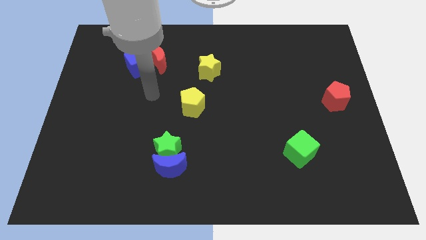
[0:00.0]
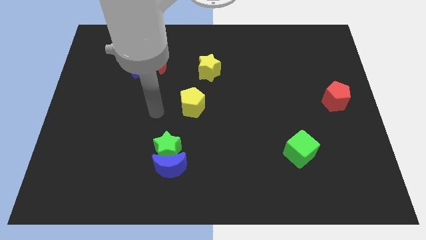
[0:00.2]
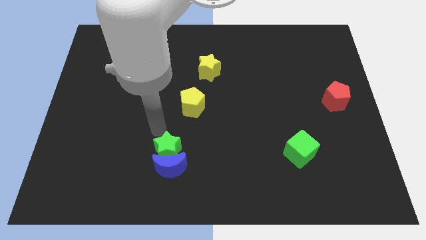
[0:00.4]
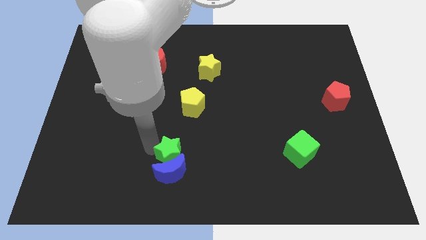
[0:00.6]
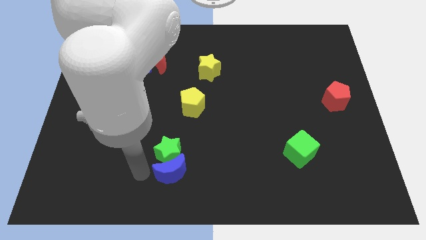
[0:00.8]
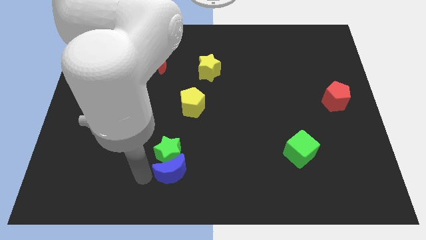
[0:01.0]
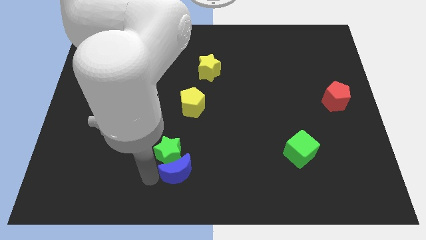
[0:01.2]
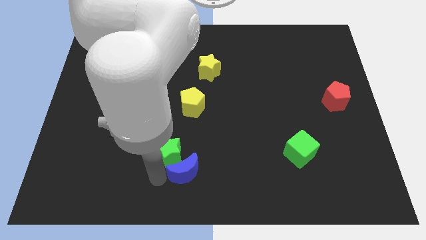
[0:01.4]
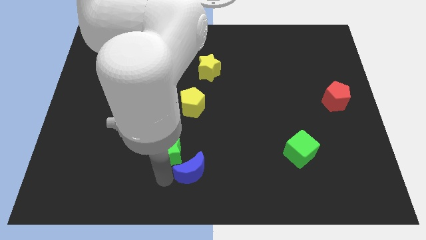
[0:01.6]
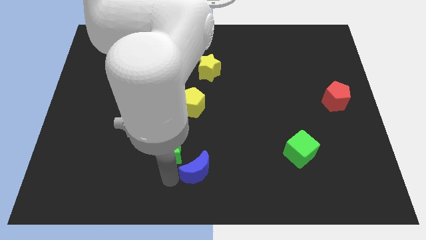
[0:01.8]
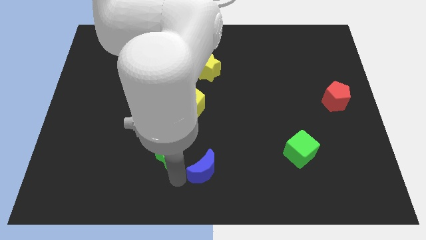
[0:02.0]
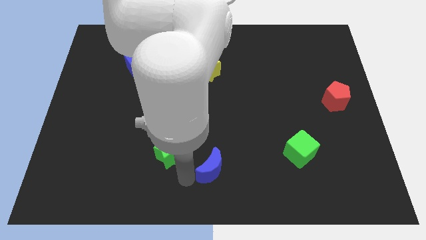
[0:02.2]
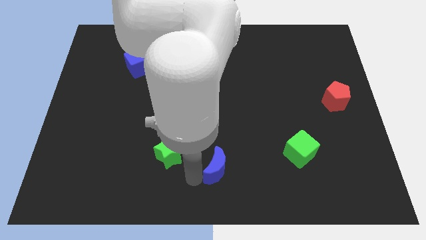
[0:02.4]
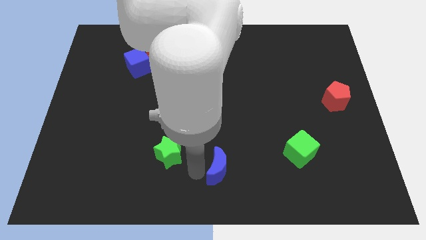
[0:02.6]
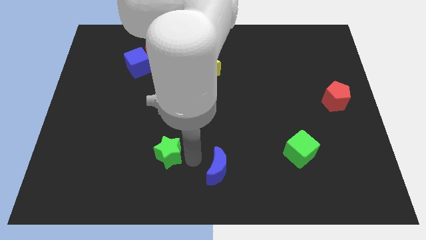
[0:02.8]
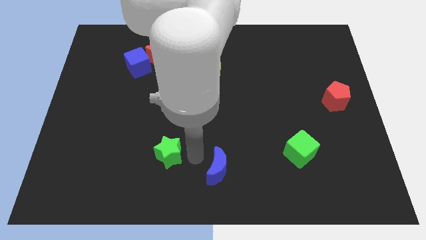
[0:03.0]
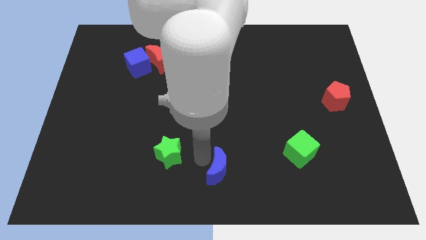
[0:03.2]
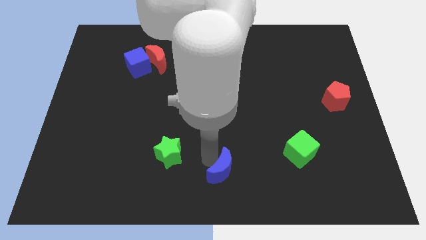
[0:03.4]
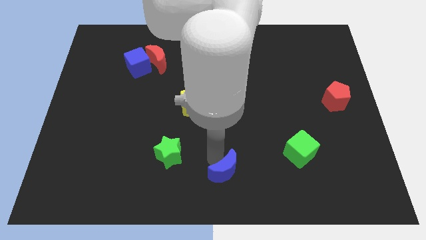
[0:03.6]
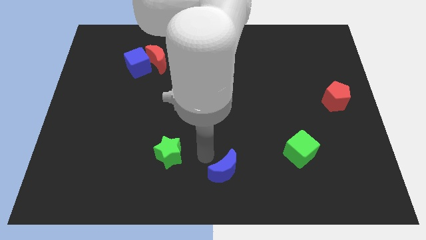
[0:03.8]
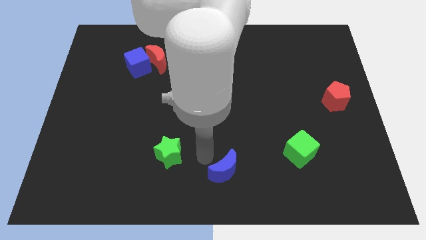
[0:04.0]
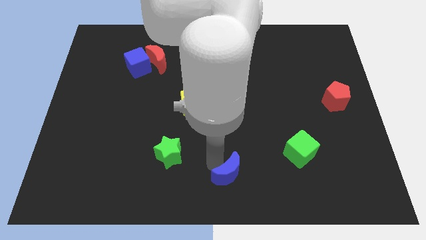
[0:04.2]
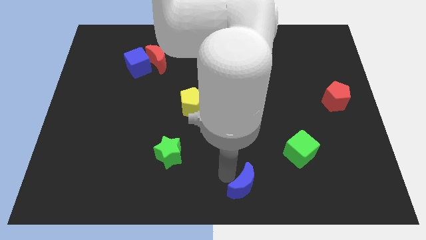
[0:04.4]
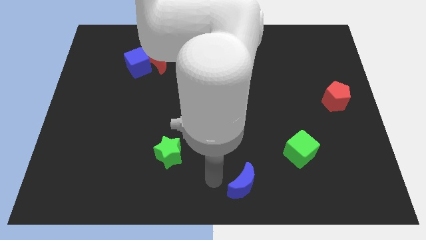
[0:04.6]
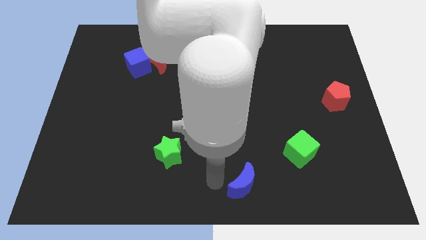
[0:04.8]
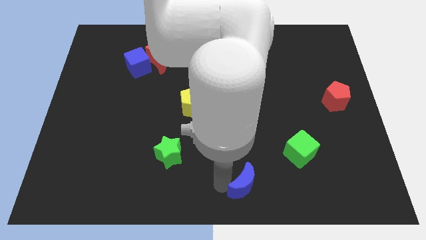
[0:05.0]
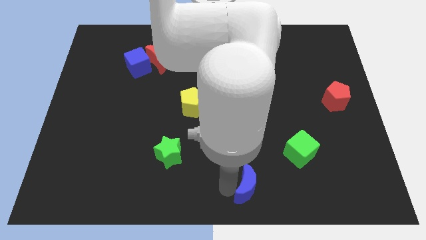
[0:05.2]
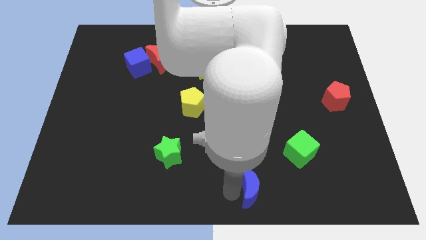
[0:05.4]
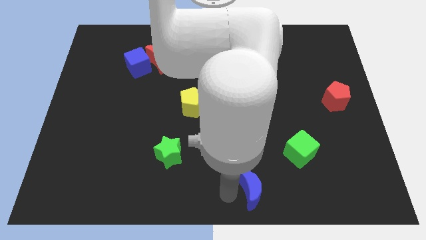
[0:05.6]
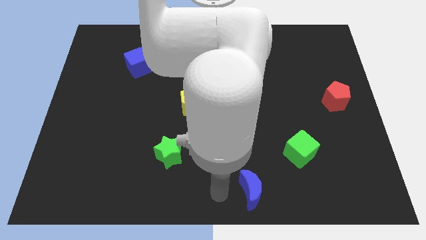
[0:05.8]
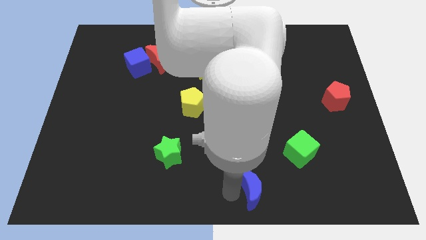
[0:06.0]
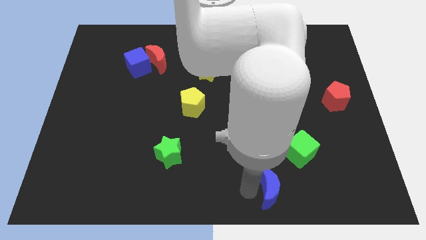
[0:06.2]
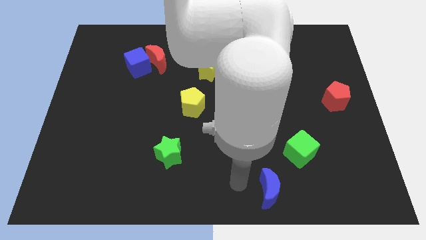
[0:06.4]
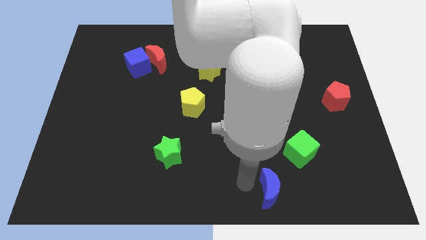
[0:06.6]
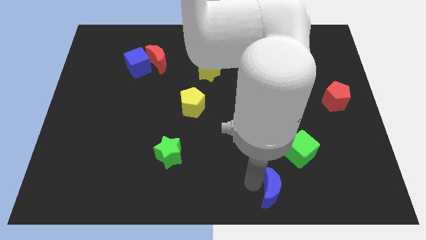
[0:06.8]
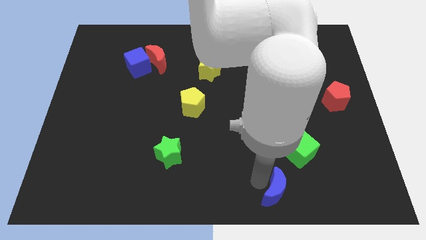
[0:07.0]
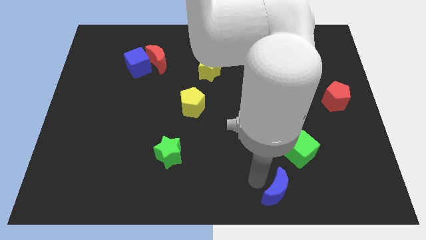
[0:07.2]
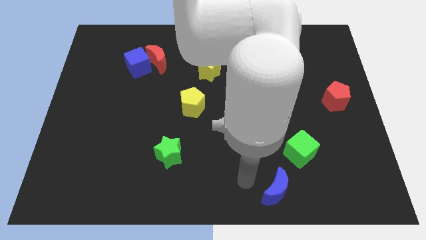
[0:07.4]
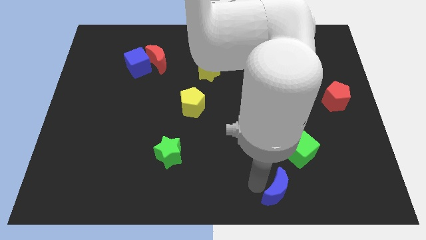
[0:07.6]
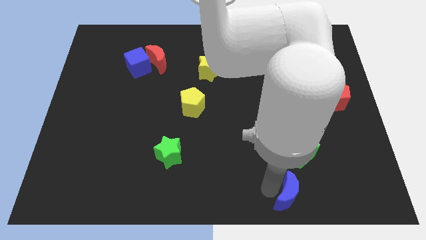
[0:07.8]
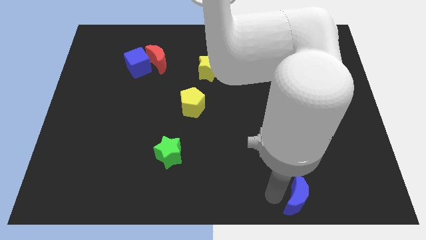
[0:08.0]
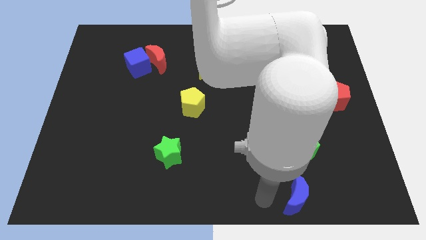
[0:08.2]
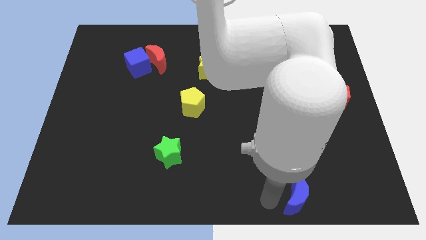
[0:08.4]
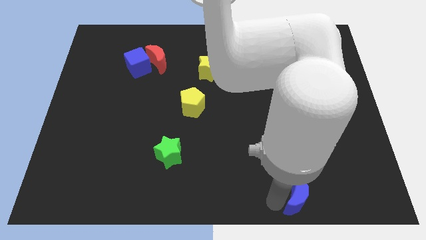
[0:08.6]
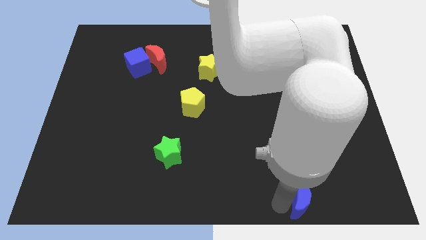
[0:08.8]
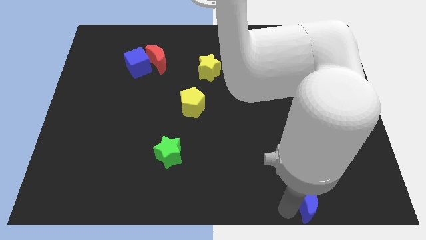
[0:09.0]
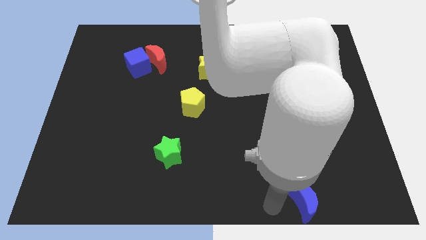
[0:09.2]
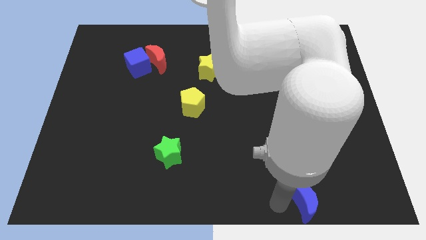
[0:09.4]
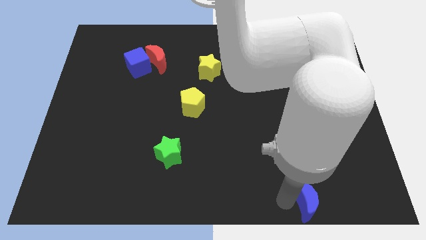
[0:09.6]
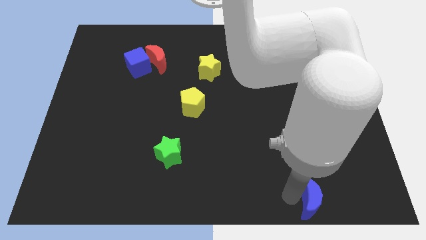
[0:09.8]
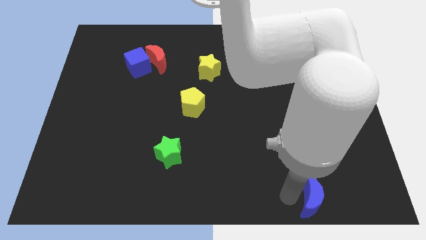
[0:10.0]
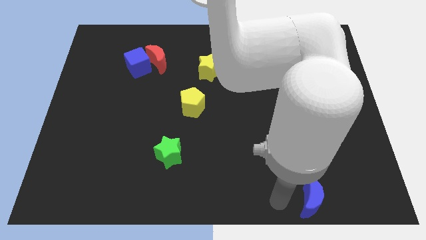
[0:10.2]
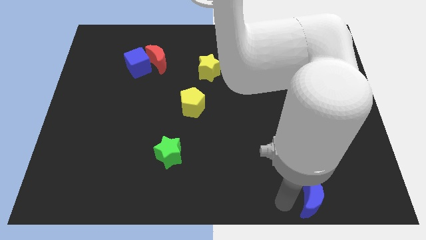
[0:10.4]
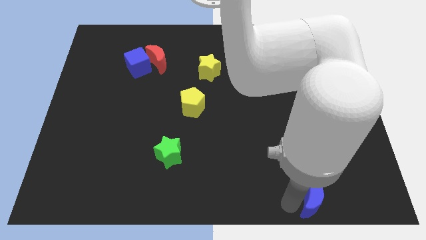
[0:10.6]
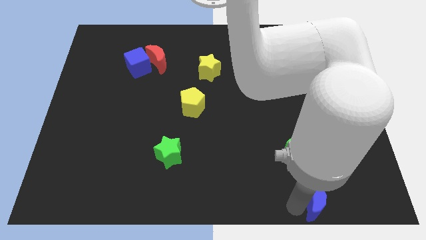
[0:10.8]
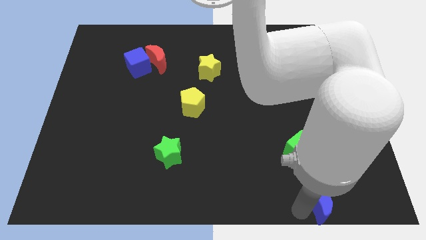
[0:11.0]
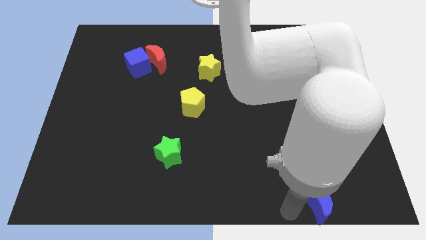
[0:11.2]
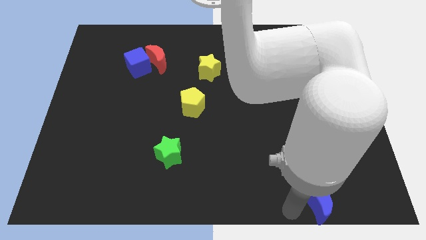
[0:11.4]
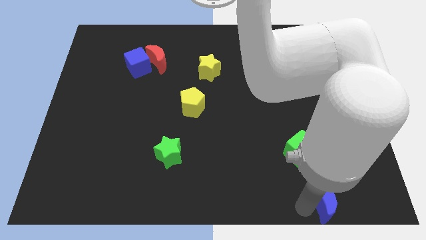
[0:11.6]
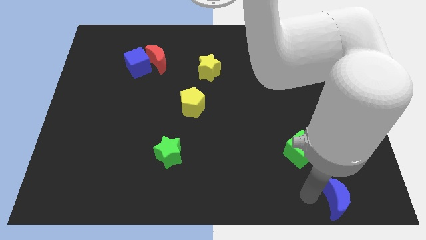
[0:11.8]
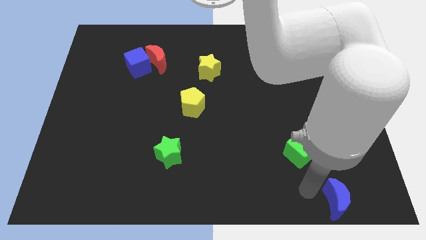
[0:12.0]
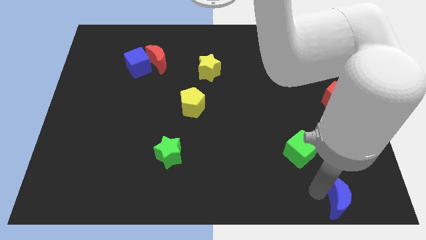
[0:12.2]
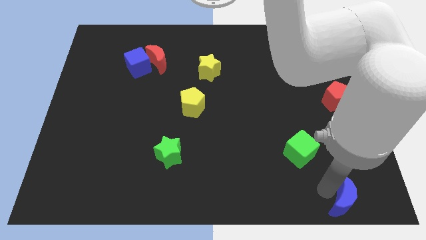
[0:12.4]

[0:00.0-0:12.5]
put the blue moon to the bottom right

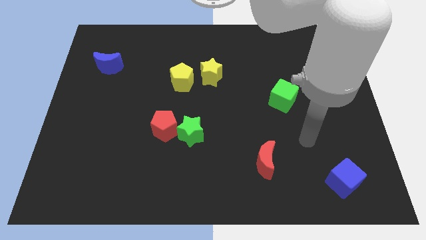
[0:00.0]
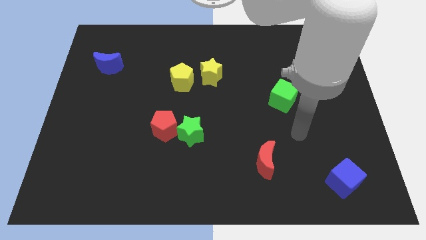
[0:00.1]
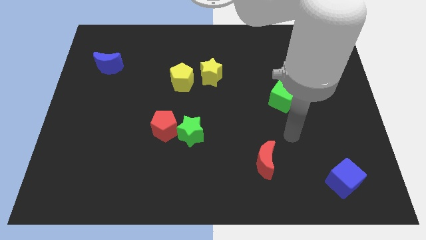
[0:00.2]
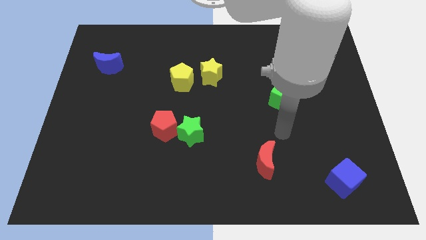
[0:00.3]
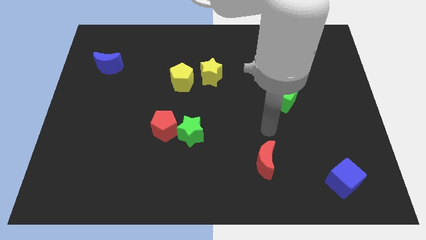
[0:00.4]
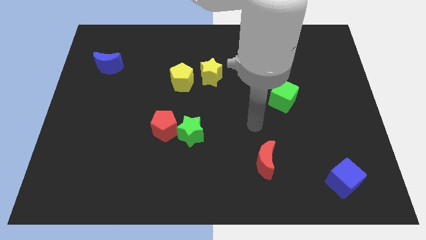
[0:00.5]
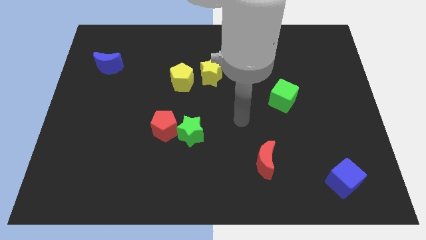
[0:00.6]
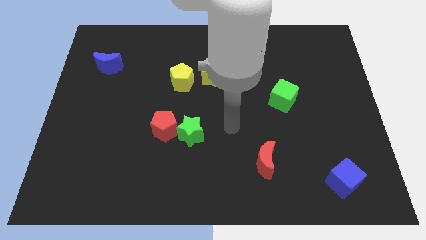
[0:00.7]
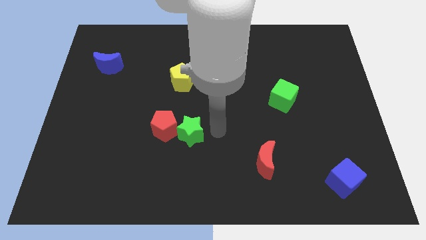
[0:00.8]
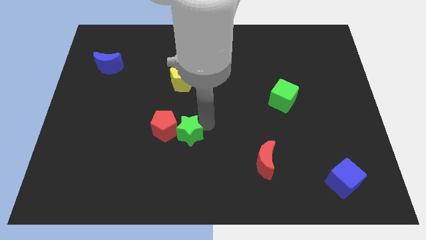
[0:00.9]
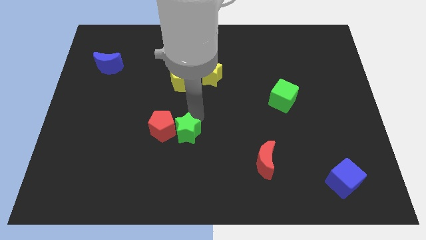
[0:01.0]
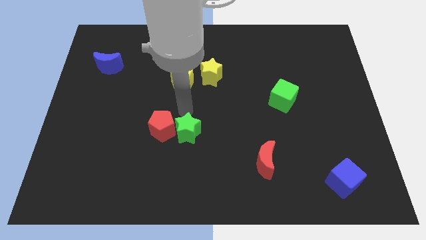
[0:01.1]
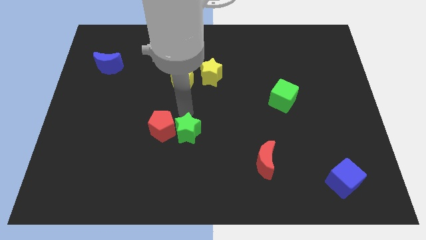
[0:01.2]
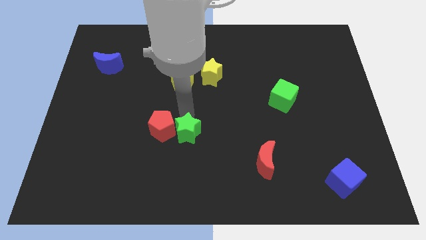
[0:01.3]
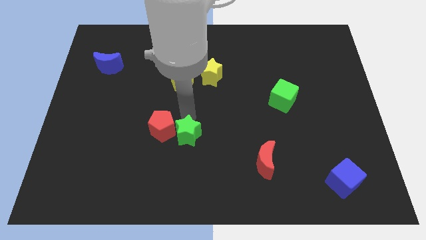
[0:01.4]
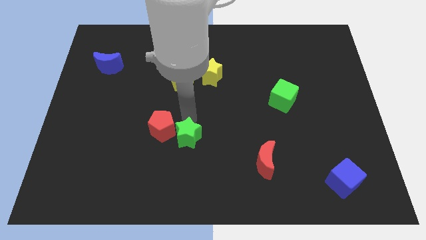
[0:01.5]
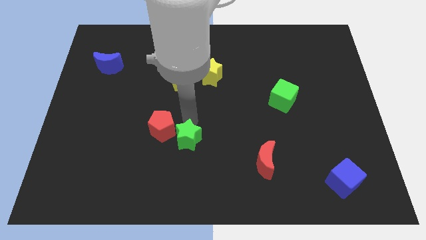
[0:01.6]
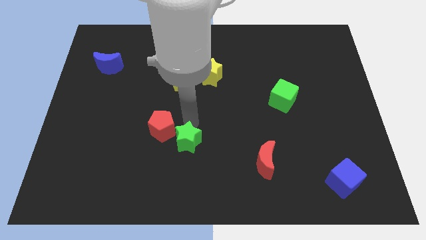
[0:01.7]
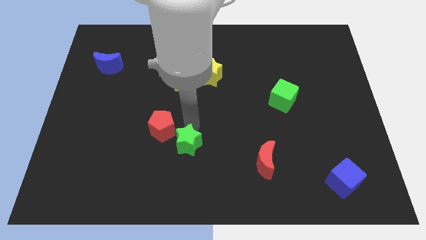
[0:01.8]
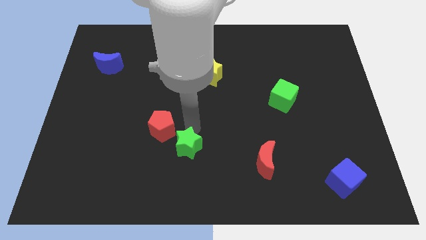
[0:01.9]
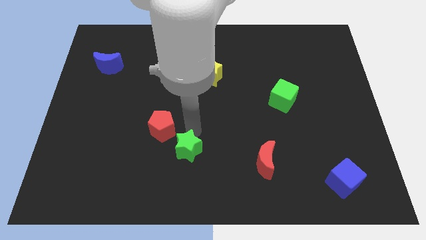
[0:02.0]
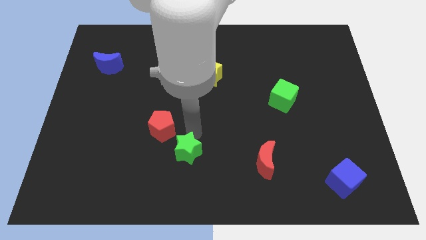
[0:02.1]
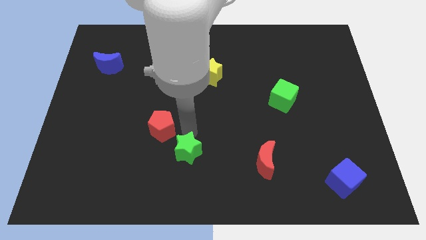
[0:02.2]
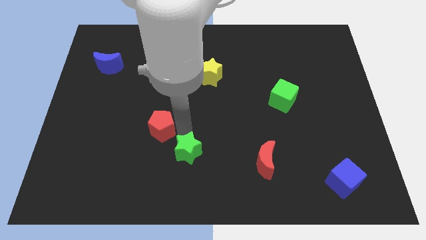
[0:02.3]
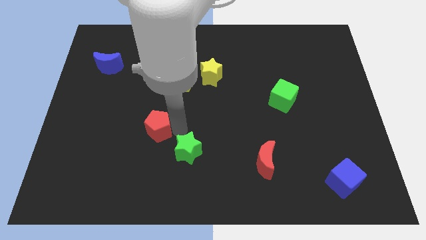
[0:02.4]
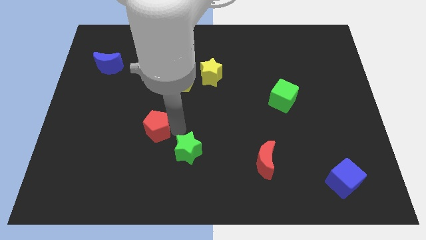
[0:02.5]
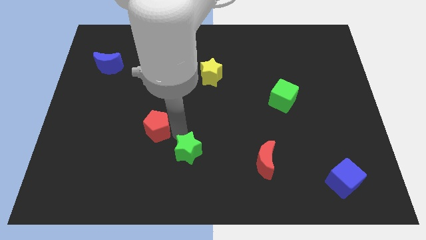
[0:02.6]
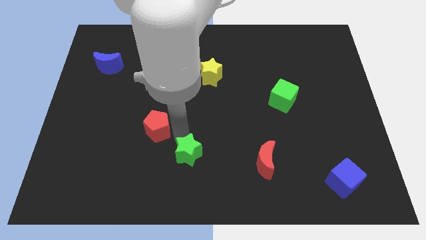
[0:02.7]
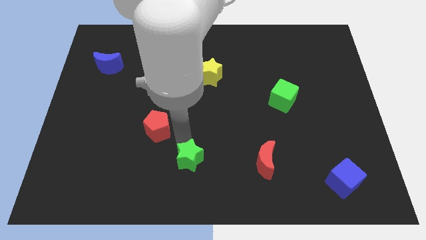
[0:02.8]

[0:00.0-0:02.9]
put the green star to the bottom side
